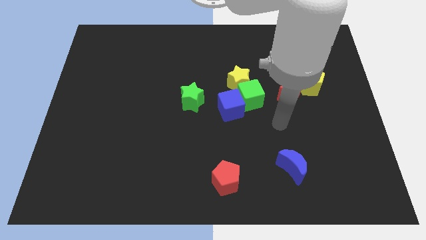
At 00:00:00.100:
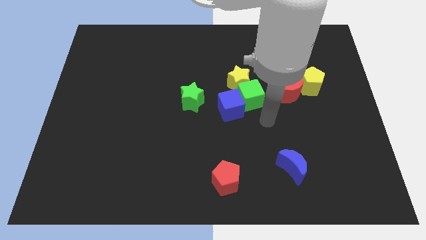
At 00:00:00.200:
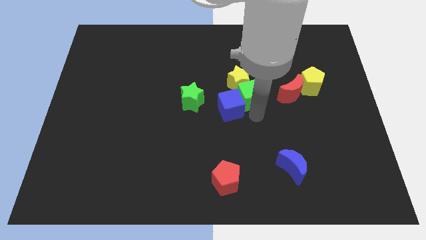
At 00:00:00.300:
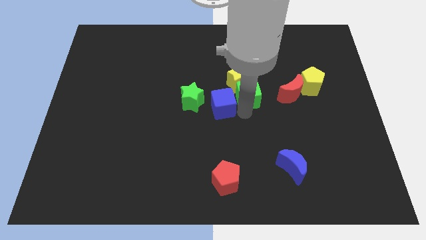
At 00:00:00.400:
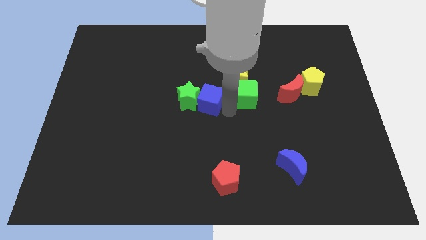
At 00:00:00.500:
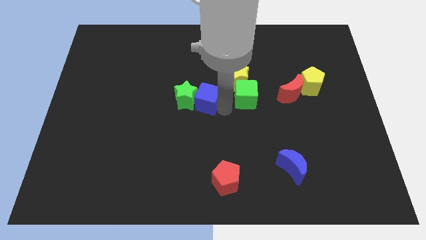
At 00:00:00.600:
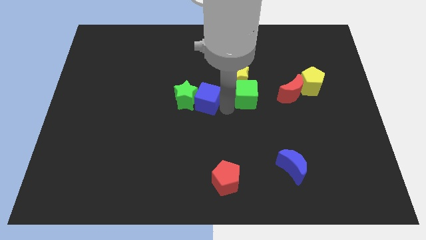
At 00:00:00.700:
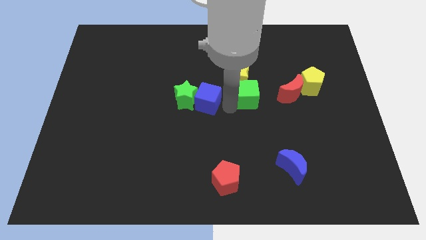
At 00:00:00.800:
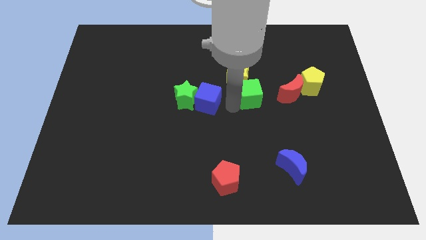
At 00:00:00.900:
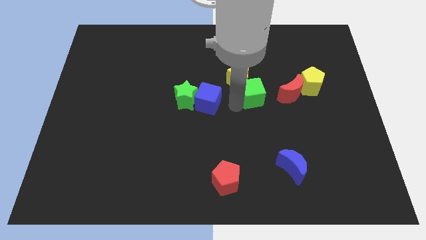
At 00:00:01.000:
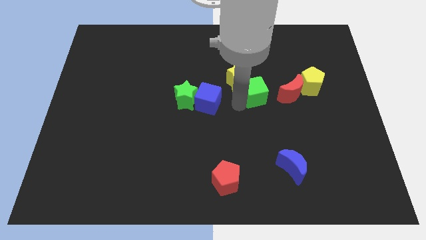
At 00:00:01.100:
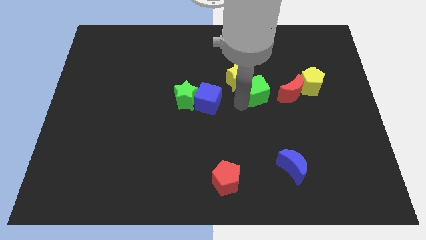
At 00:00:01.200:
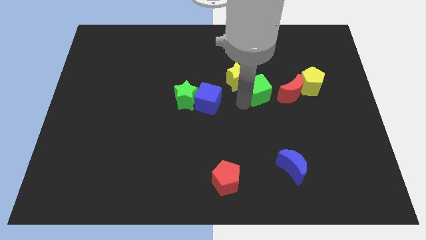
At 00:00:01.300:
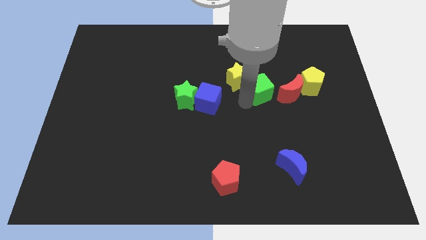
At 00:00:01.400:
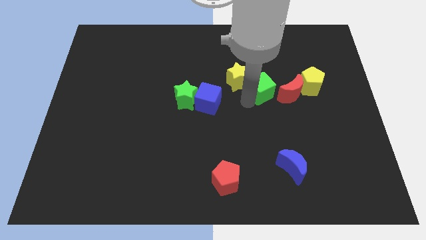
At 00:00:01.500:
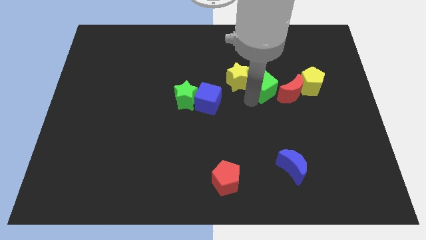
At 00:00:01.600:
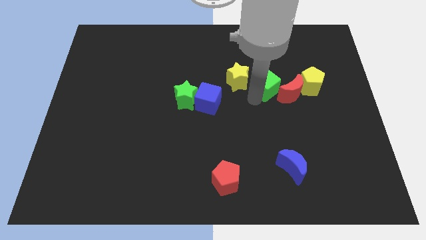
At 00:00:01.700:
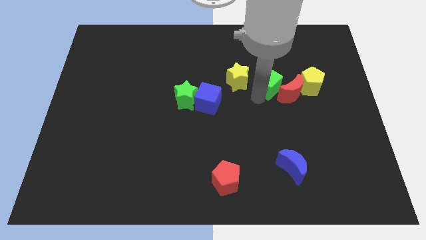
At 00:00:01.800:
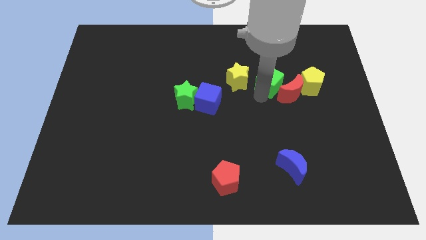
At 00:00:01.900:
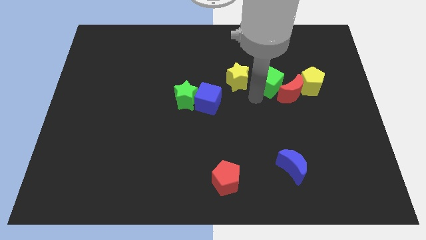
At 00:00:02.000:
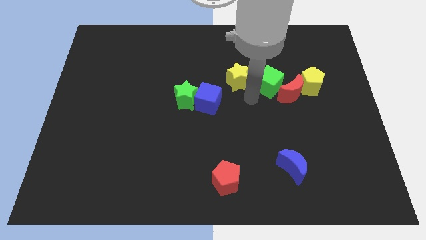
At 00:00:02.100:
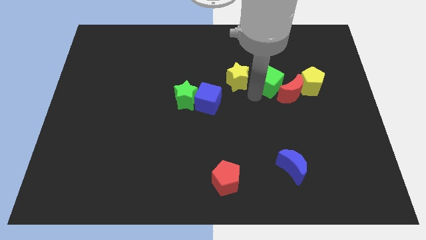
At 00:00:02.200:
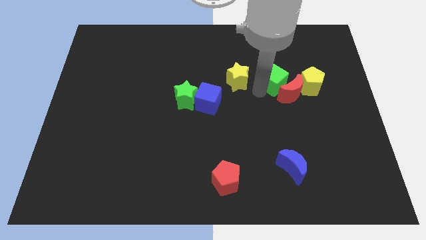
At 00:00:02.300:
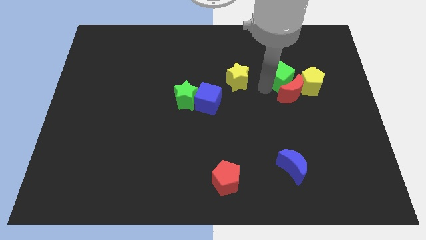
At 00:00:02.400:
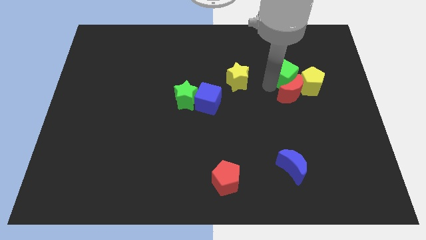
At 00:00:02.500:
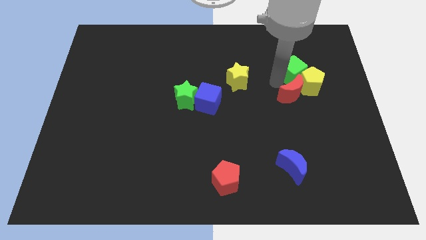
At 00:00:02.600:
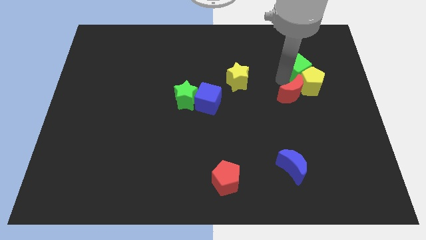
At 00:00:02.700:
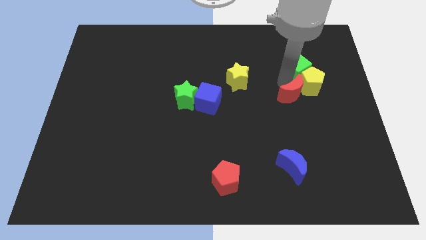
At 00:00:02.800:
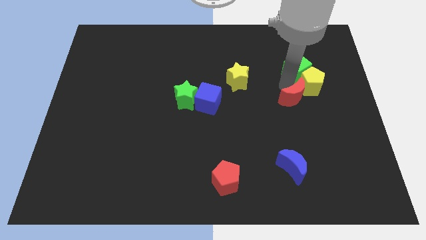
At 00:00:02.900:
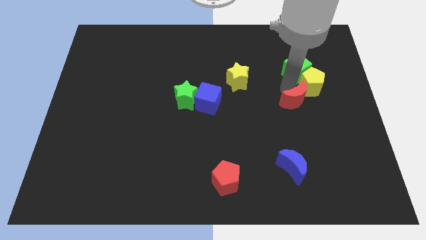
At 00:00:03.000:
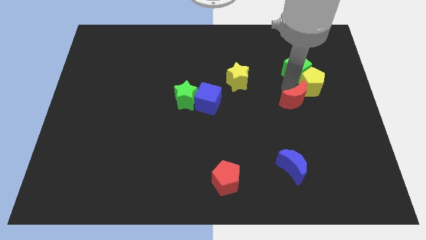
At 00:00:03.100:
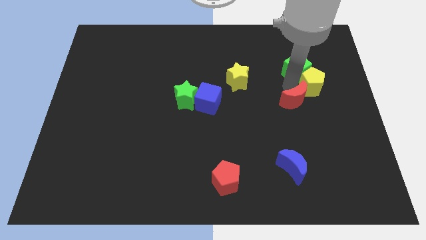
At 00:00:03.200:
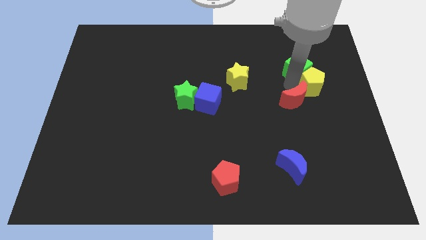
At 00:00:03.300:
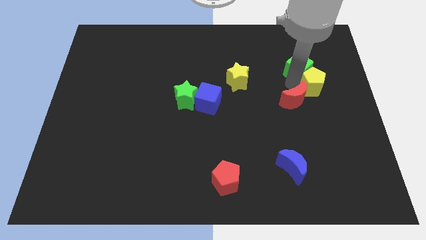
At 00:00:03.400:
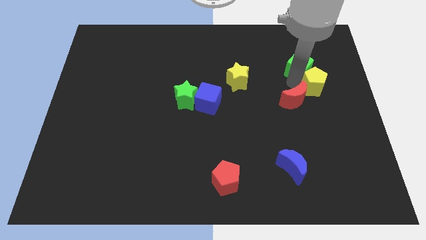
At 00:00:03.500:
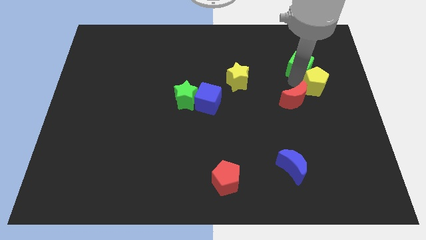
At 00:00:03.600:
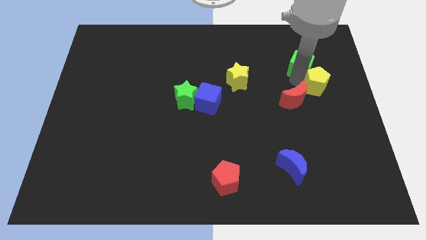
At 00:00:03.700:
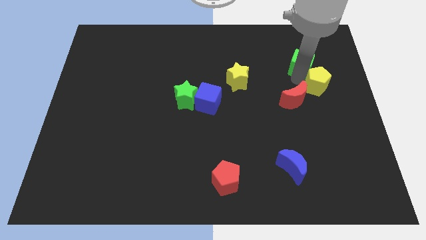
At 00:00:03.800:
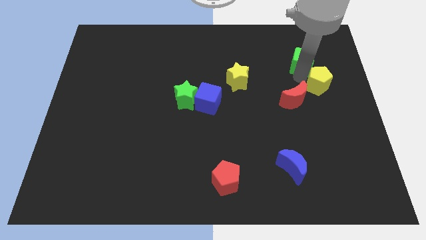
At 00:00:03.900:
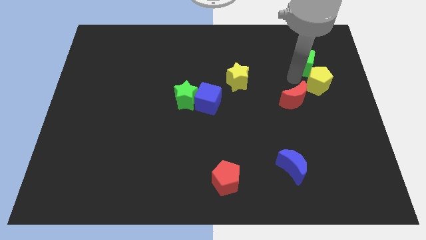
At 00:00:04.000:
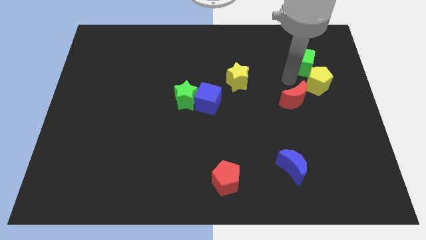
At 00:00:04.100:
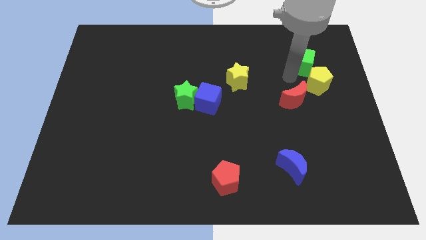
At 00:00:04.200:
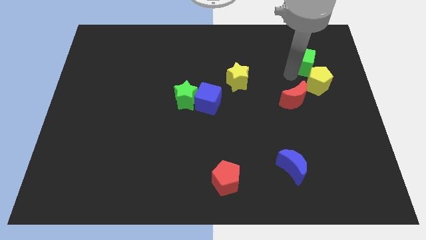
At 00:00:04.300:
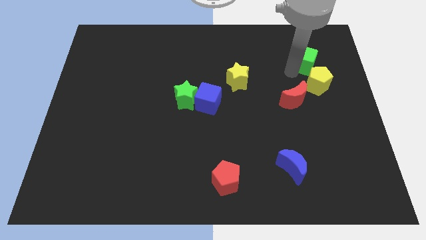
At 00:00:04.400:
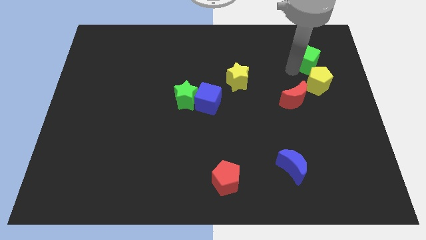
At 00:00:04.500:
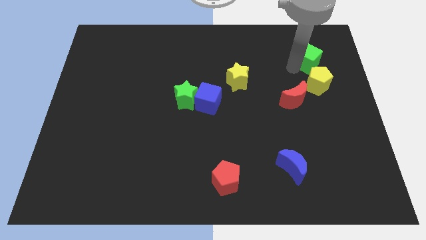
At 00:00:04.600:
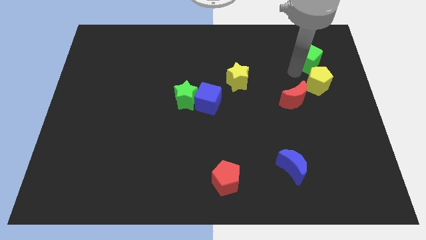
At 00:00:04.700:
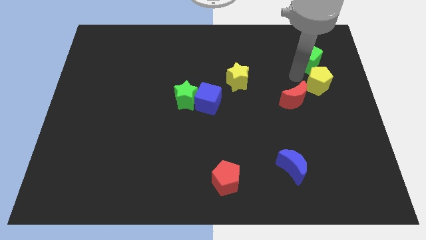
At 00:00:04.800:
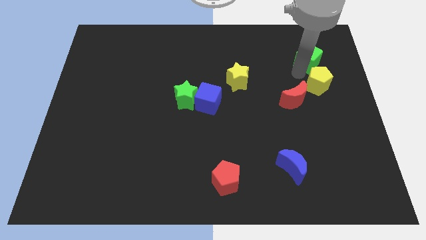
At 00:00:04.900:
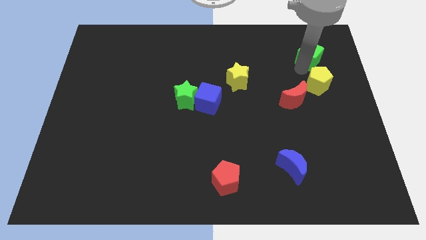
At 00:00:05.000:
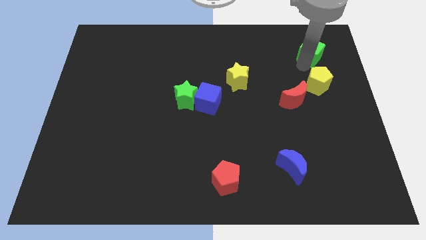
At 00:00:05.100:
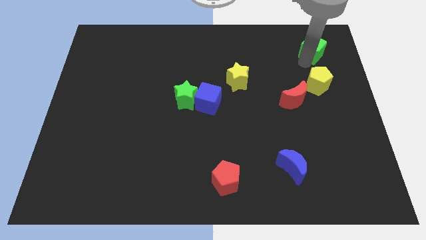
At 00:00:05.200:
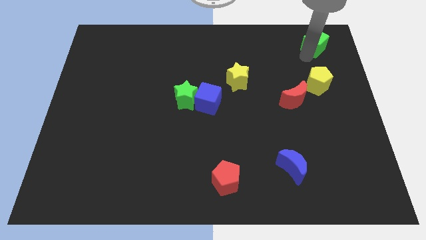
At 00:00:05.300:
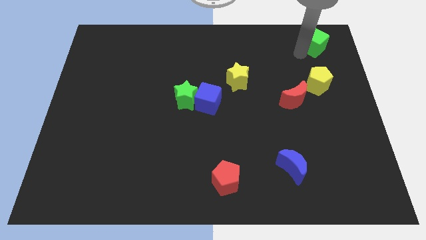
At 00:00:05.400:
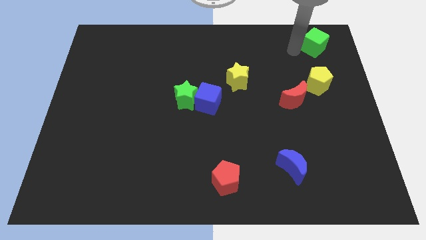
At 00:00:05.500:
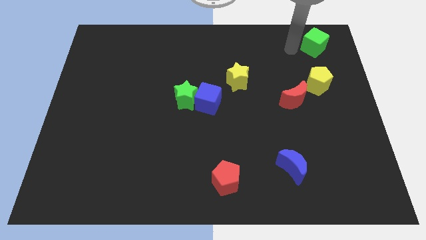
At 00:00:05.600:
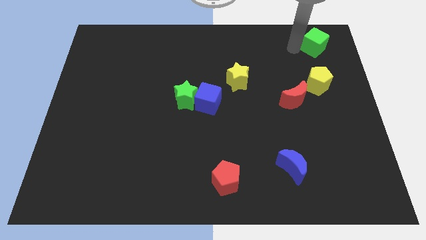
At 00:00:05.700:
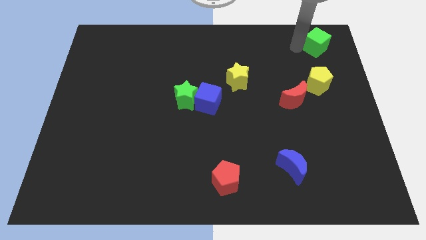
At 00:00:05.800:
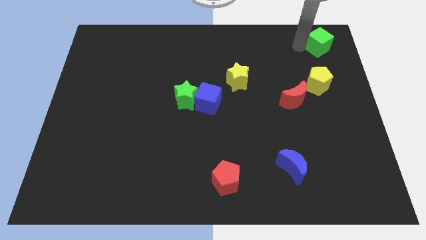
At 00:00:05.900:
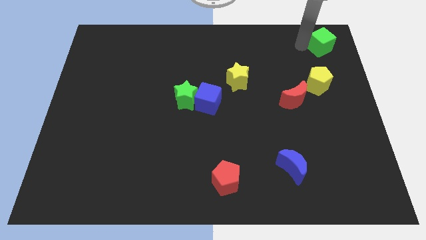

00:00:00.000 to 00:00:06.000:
slide the green cube to the top right

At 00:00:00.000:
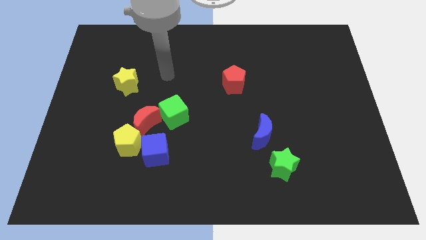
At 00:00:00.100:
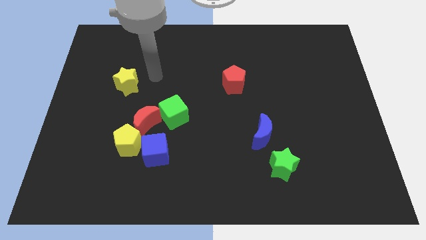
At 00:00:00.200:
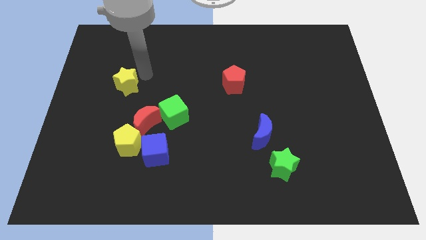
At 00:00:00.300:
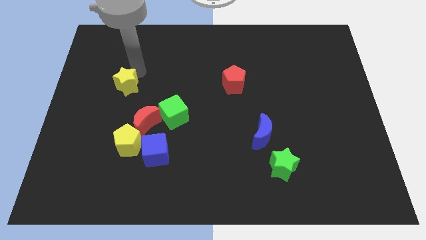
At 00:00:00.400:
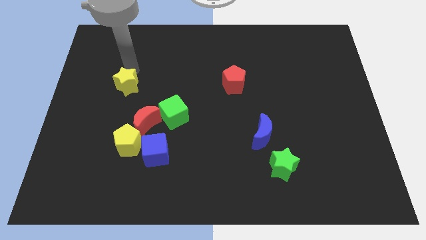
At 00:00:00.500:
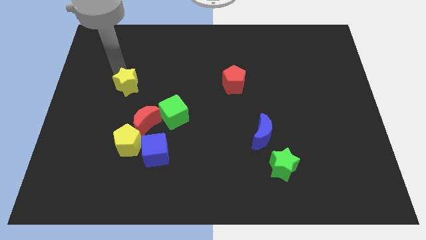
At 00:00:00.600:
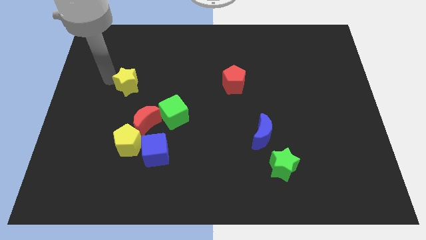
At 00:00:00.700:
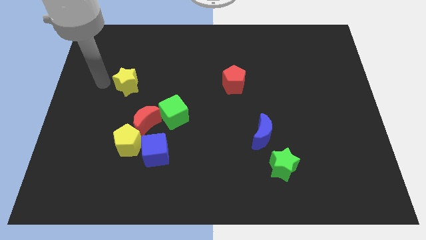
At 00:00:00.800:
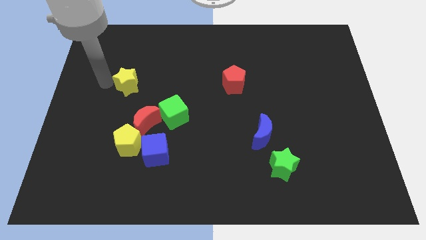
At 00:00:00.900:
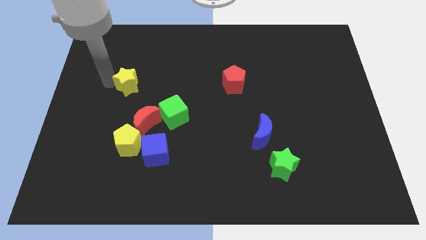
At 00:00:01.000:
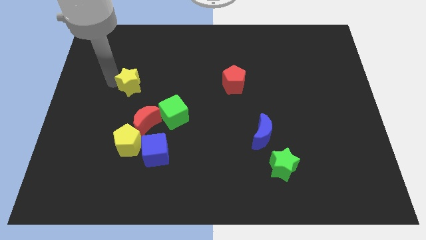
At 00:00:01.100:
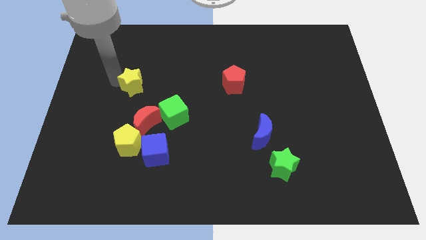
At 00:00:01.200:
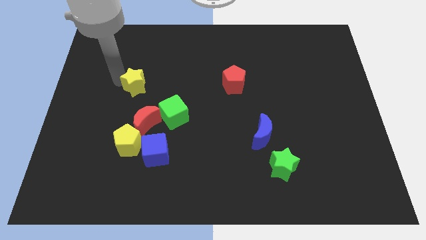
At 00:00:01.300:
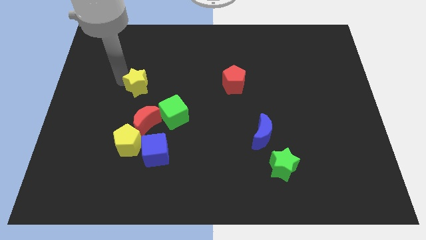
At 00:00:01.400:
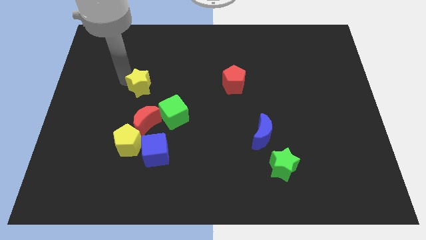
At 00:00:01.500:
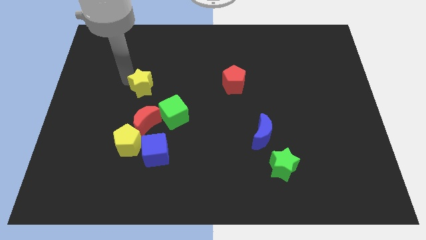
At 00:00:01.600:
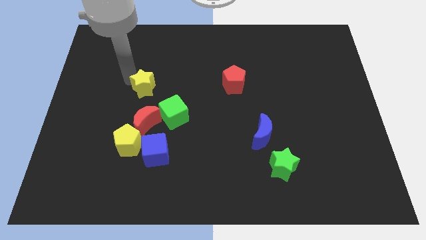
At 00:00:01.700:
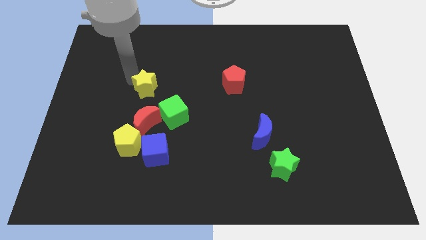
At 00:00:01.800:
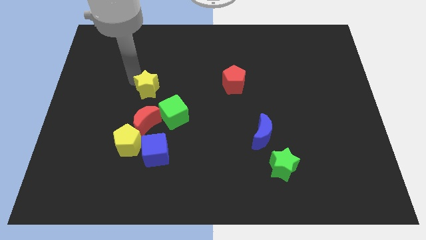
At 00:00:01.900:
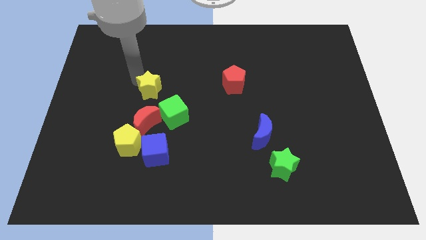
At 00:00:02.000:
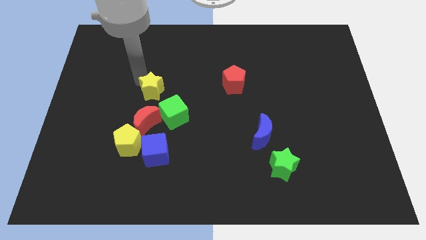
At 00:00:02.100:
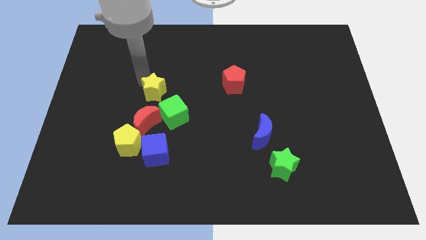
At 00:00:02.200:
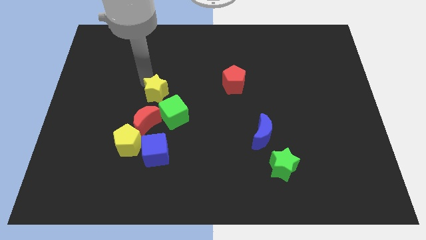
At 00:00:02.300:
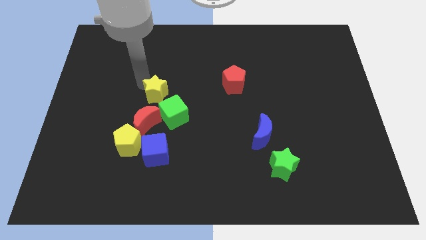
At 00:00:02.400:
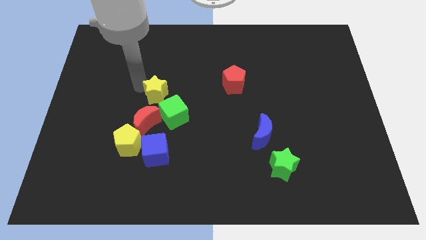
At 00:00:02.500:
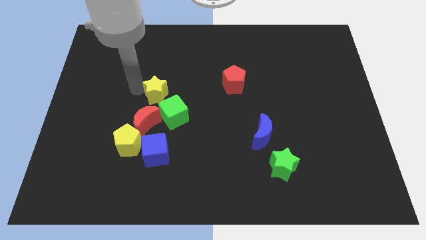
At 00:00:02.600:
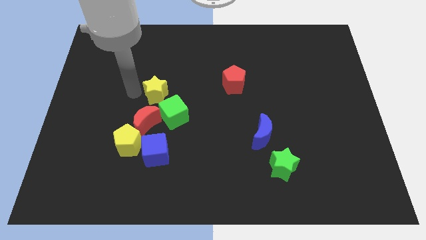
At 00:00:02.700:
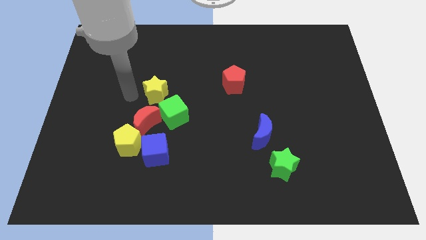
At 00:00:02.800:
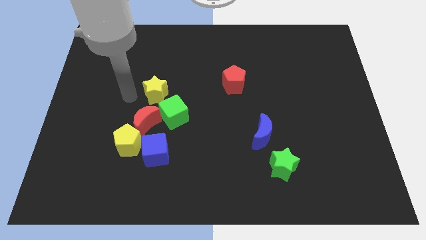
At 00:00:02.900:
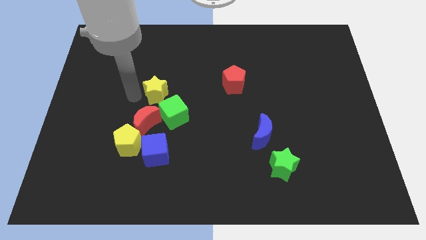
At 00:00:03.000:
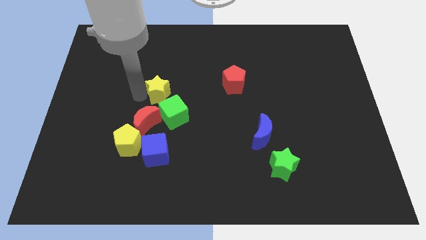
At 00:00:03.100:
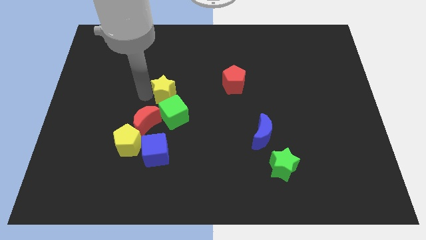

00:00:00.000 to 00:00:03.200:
slide the yellow star to the middle of the board
